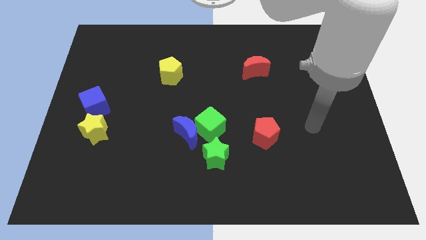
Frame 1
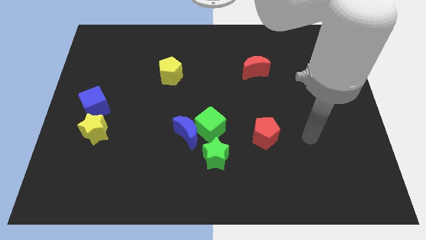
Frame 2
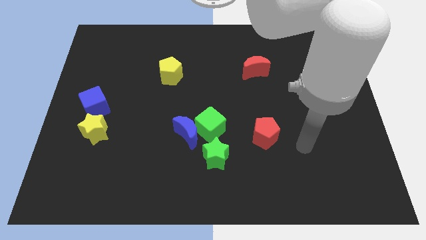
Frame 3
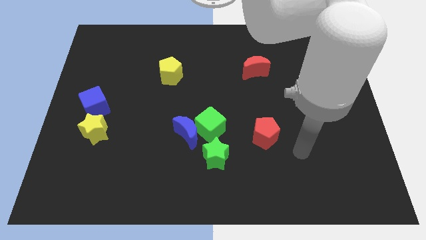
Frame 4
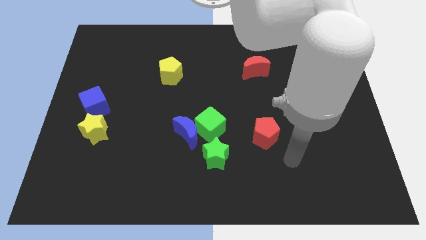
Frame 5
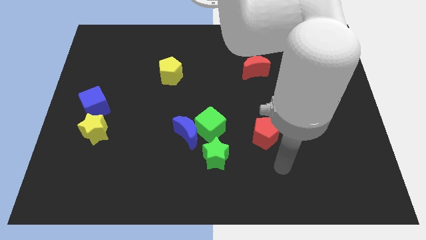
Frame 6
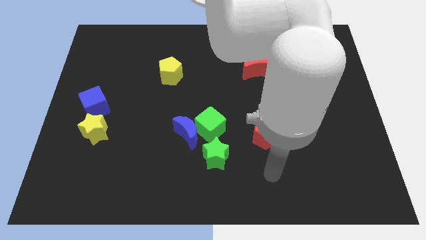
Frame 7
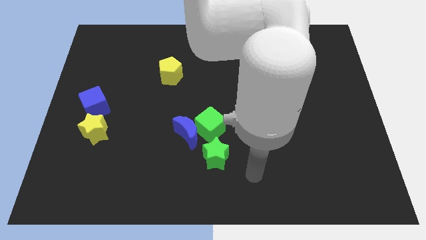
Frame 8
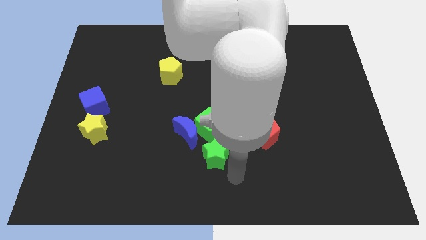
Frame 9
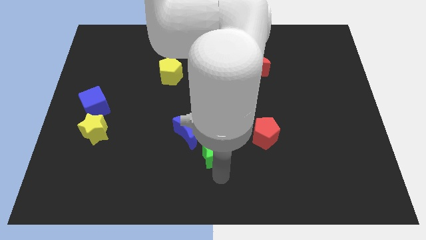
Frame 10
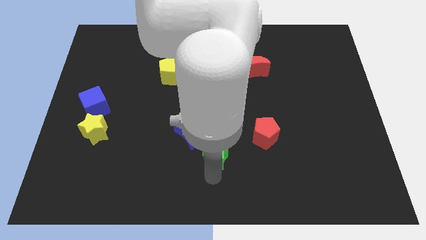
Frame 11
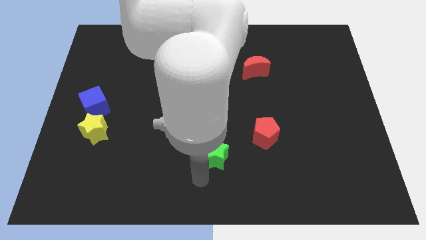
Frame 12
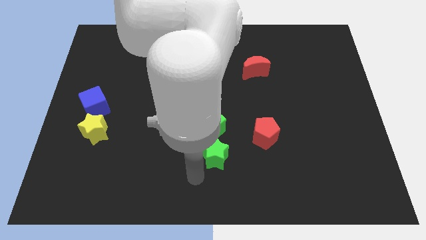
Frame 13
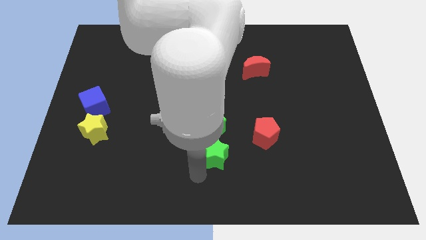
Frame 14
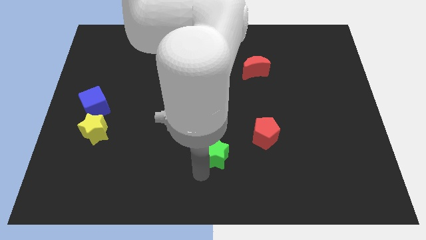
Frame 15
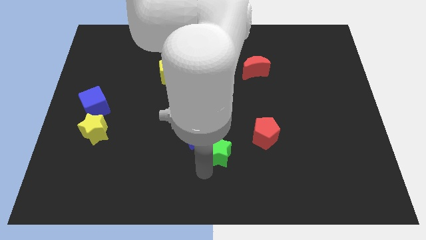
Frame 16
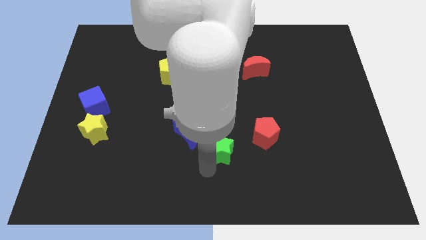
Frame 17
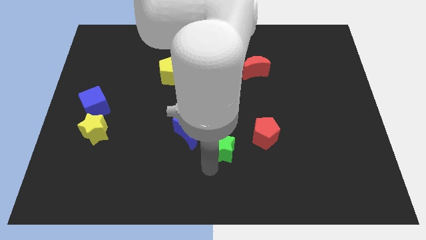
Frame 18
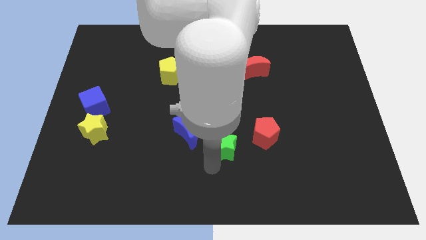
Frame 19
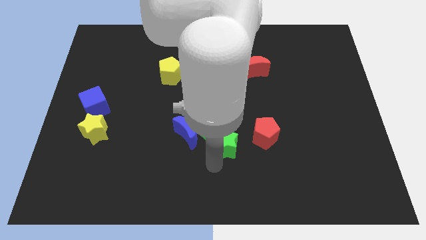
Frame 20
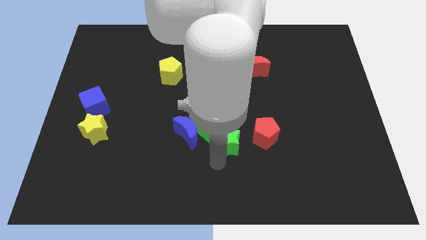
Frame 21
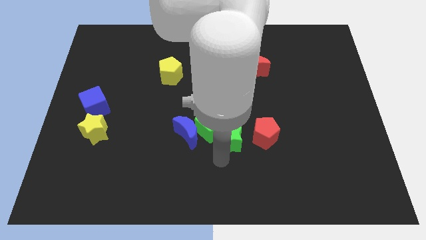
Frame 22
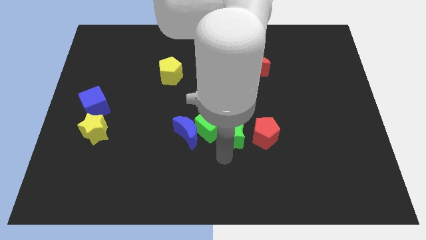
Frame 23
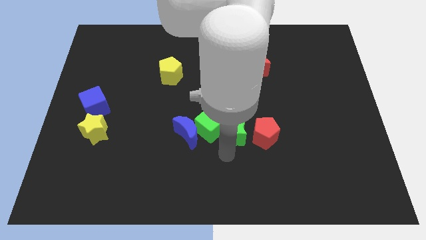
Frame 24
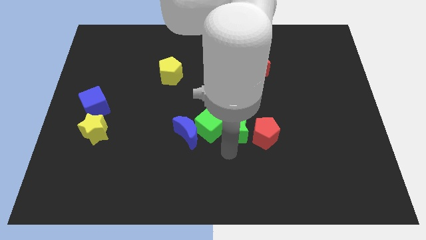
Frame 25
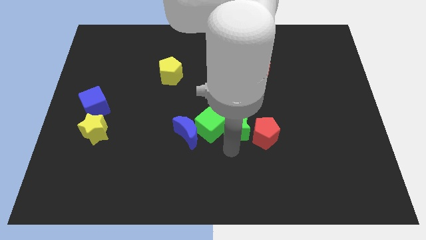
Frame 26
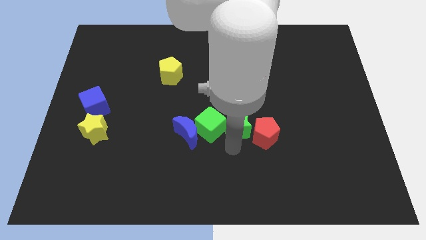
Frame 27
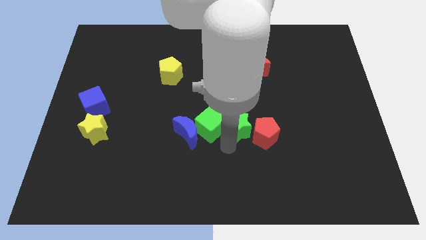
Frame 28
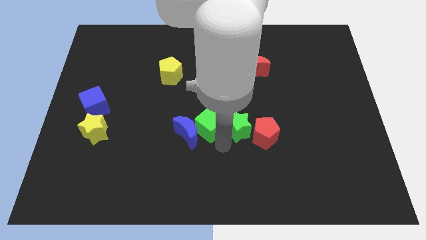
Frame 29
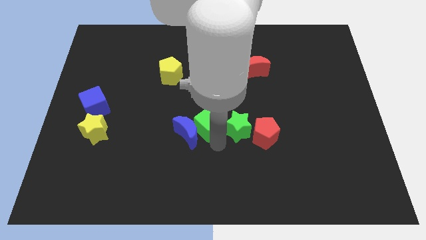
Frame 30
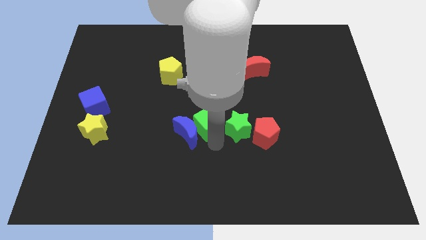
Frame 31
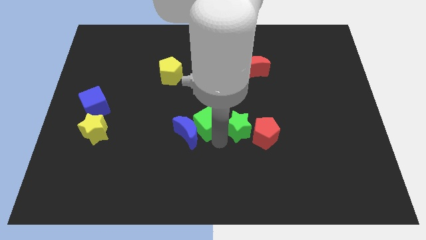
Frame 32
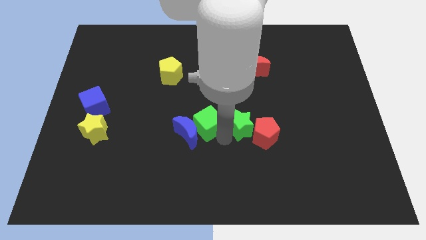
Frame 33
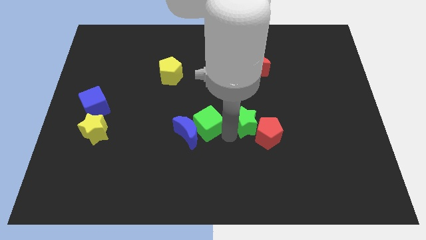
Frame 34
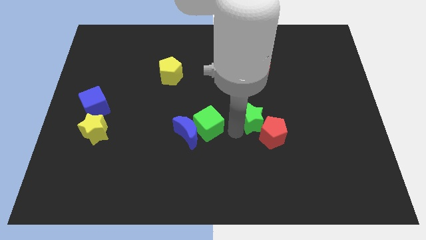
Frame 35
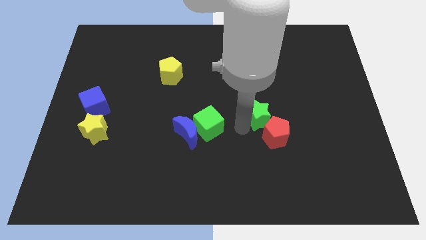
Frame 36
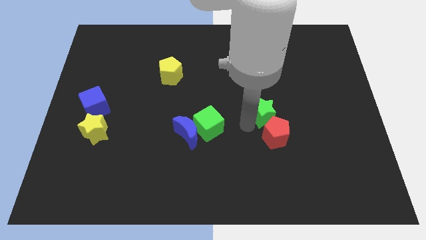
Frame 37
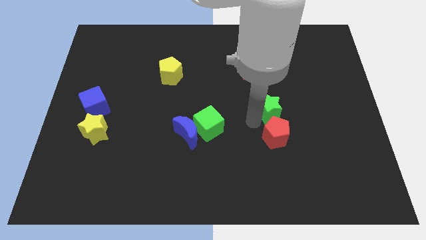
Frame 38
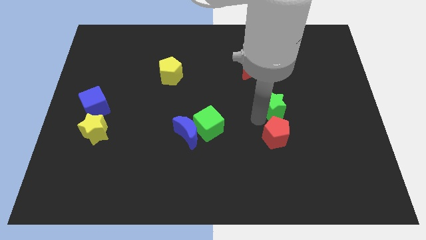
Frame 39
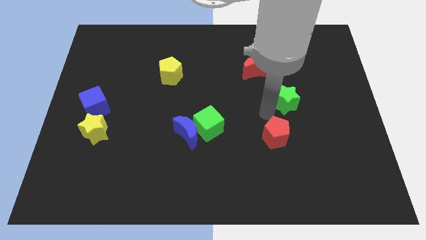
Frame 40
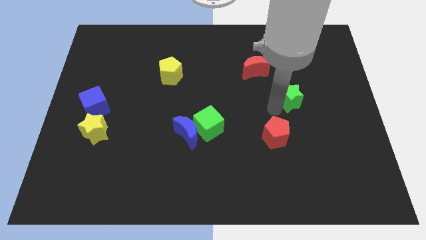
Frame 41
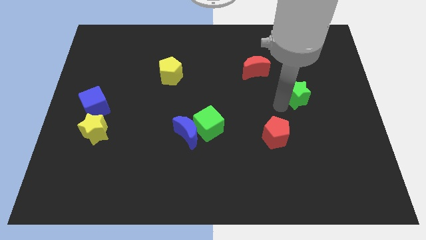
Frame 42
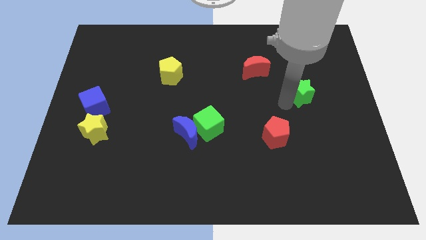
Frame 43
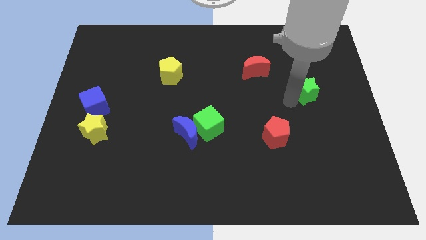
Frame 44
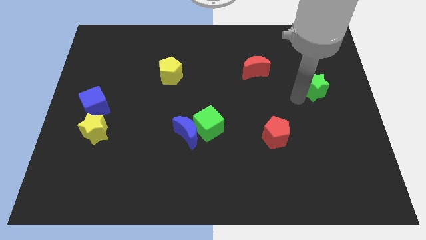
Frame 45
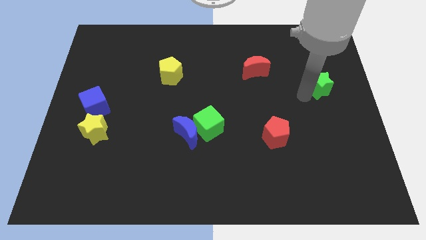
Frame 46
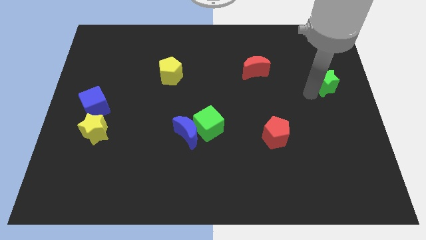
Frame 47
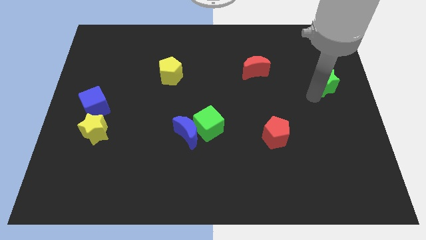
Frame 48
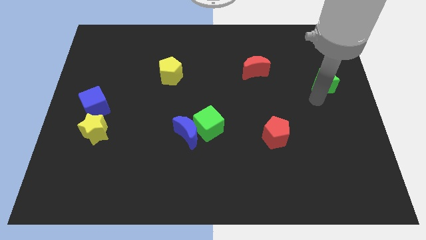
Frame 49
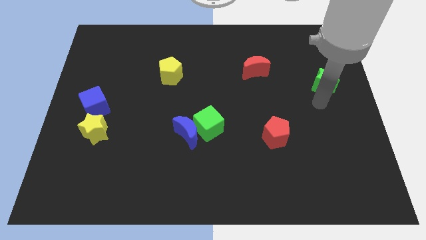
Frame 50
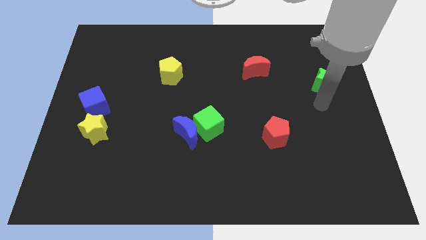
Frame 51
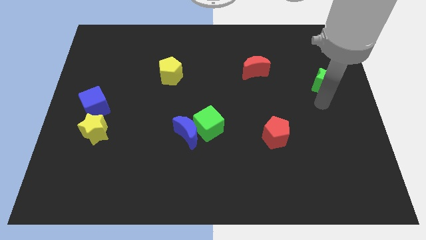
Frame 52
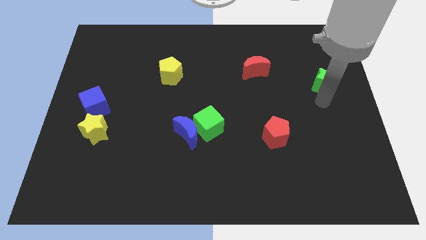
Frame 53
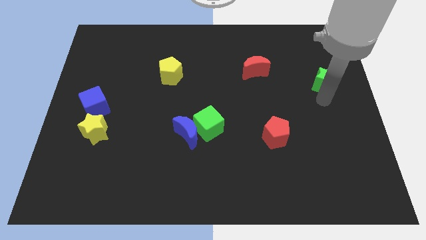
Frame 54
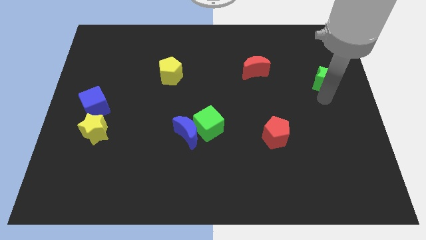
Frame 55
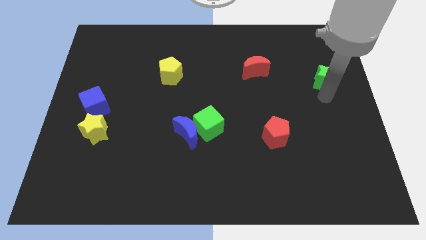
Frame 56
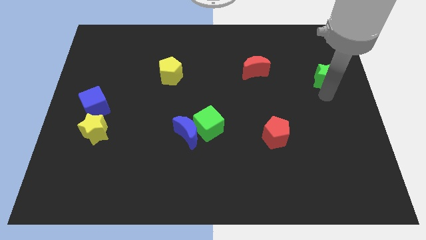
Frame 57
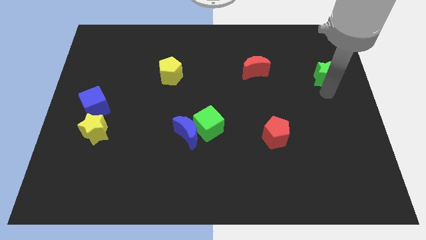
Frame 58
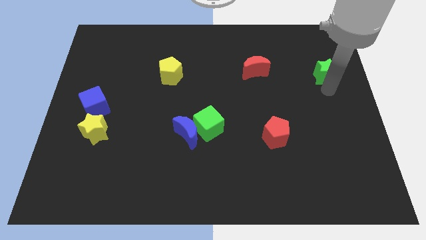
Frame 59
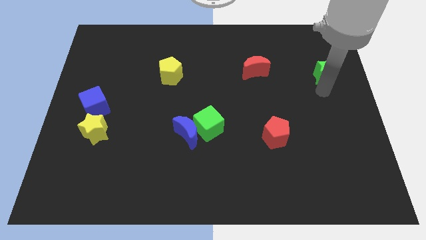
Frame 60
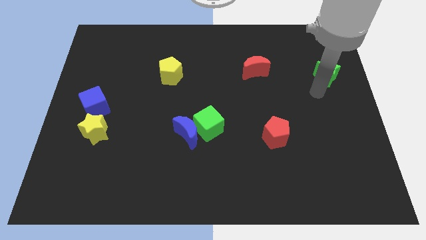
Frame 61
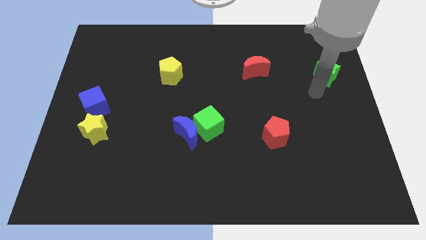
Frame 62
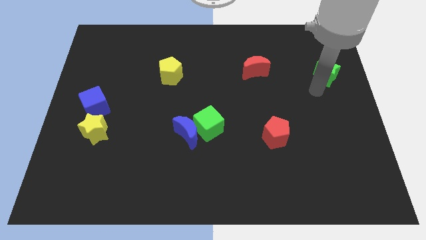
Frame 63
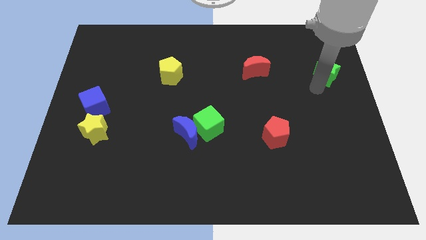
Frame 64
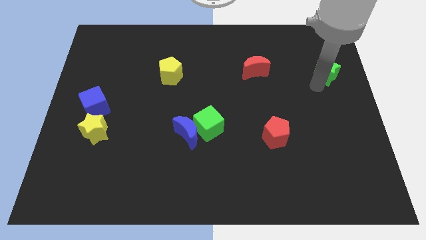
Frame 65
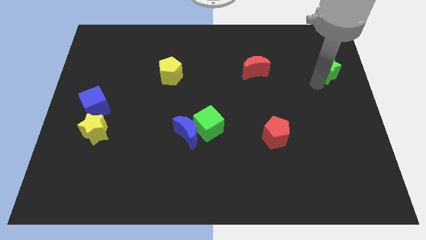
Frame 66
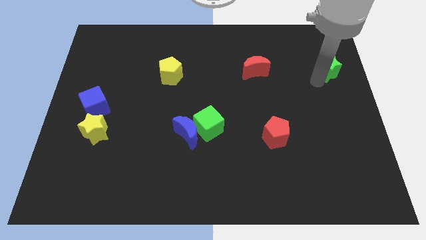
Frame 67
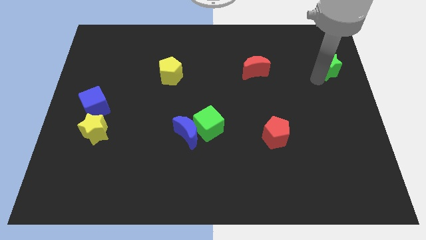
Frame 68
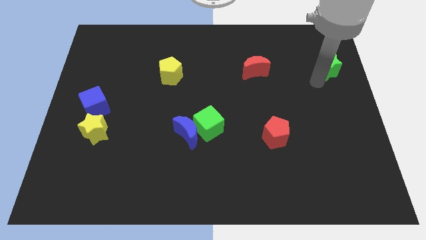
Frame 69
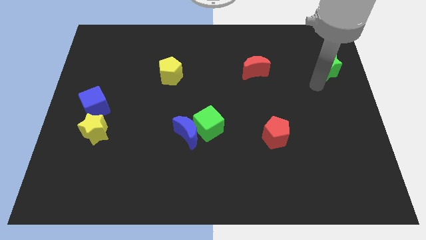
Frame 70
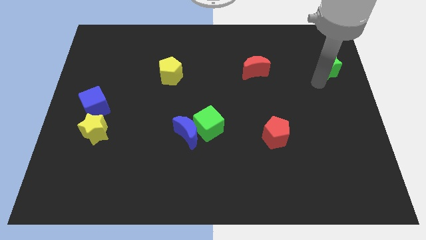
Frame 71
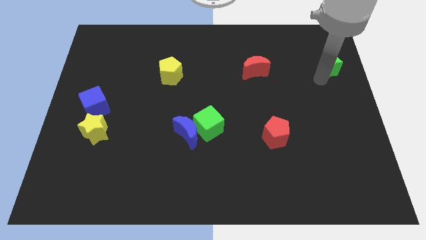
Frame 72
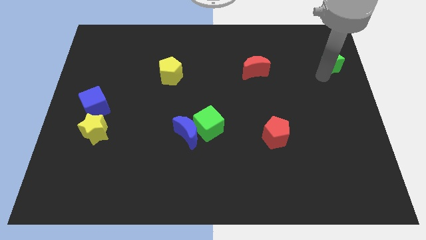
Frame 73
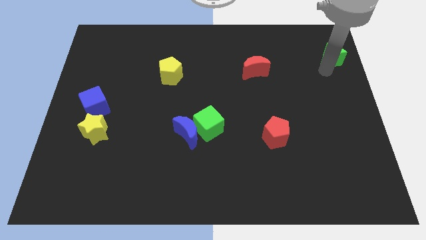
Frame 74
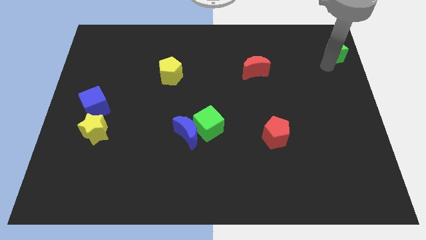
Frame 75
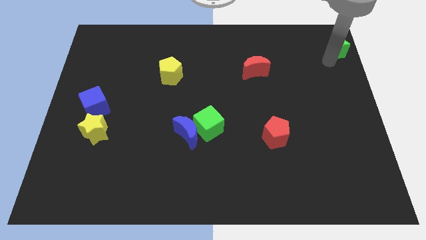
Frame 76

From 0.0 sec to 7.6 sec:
move the green star to the top right corner
